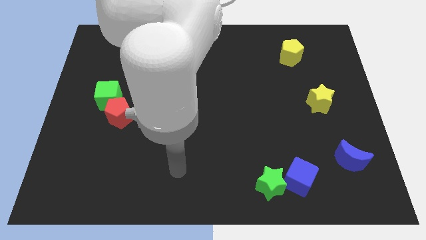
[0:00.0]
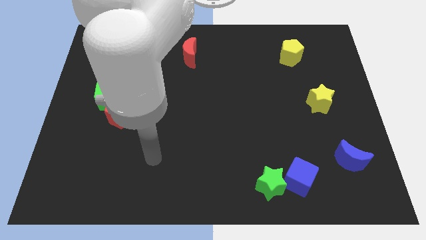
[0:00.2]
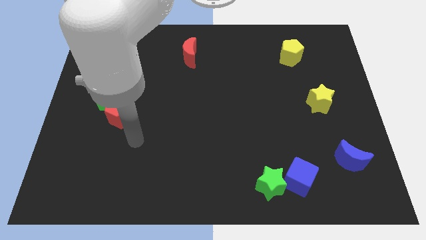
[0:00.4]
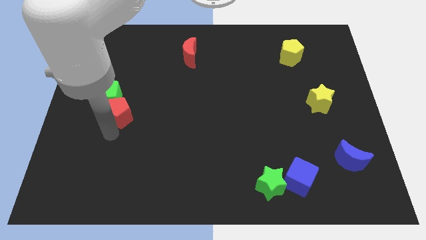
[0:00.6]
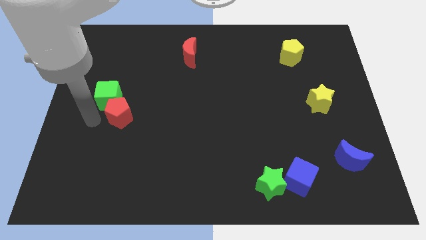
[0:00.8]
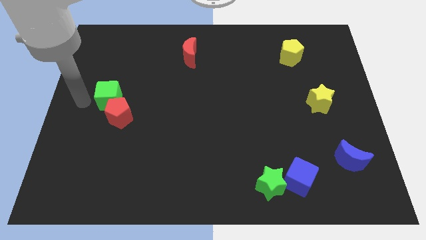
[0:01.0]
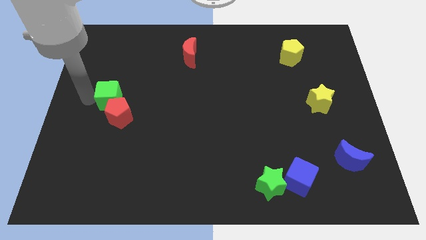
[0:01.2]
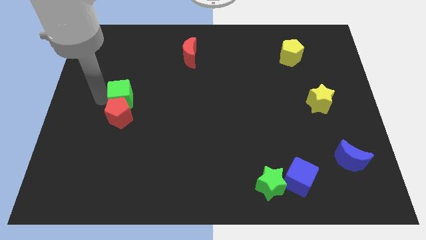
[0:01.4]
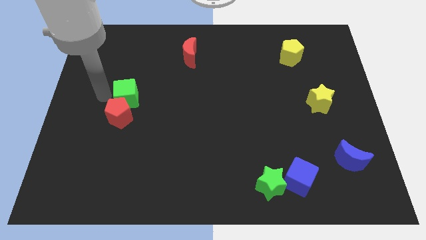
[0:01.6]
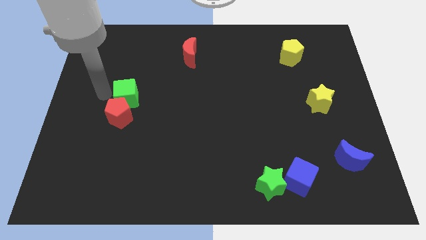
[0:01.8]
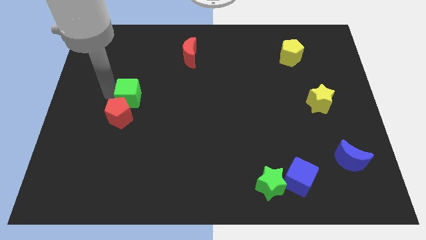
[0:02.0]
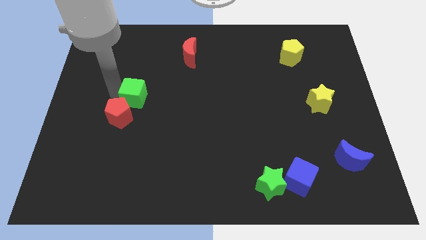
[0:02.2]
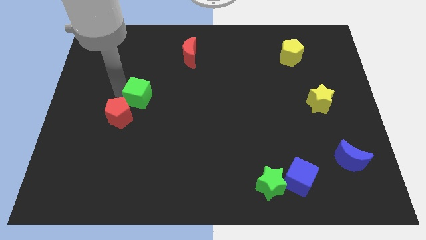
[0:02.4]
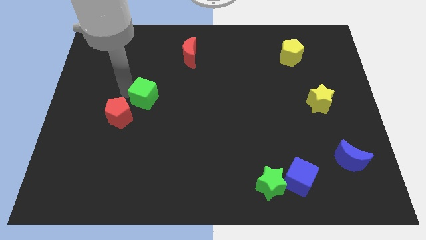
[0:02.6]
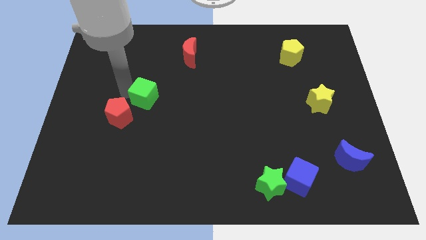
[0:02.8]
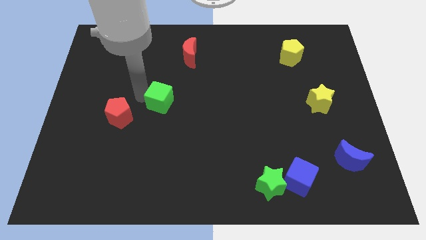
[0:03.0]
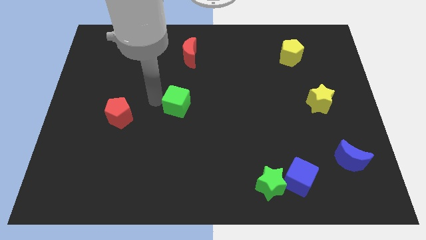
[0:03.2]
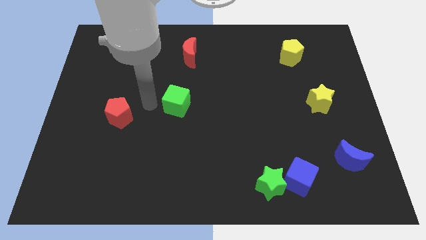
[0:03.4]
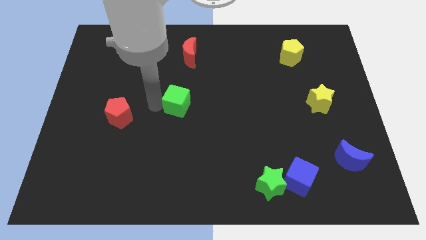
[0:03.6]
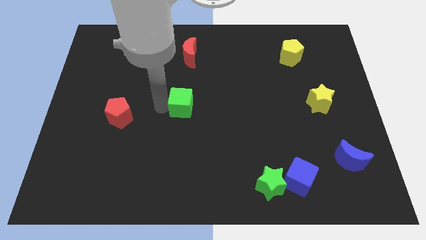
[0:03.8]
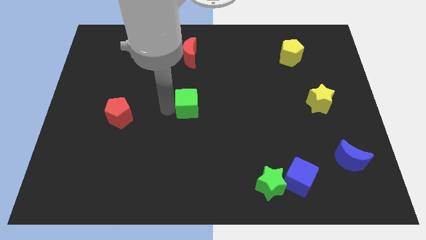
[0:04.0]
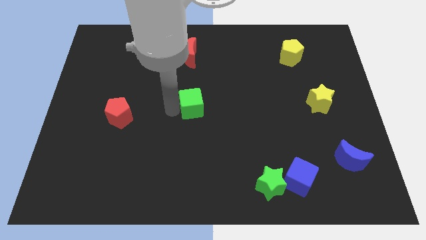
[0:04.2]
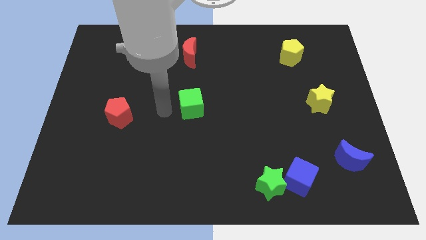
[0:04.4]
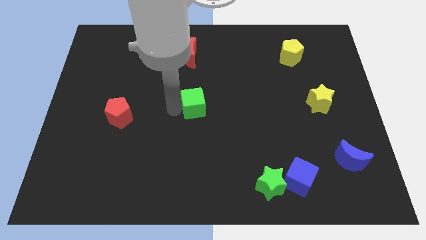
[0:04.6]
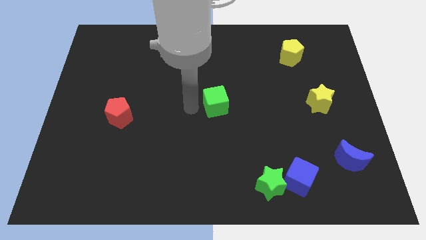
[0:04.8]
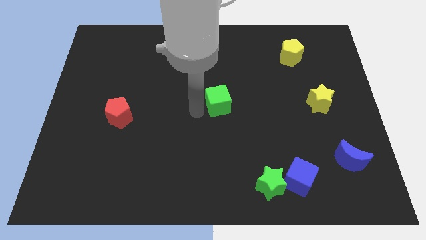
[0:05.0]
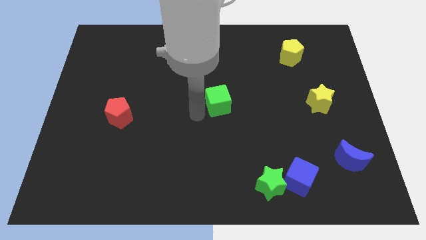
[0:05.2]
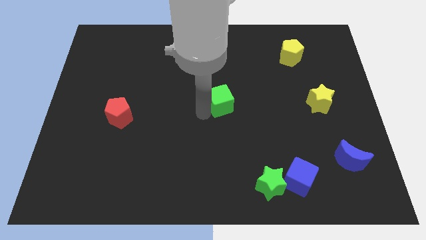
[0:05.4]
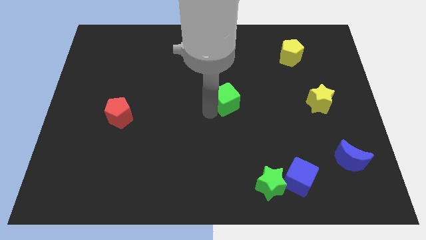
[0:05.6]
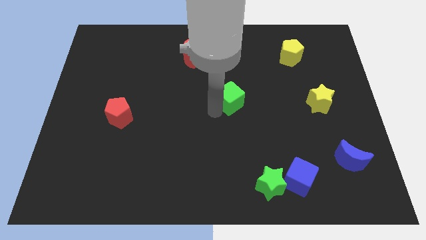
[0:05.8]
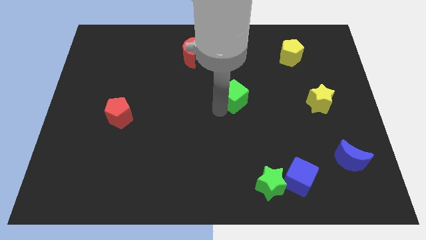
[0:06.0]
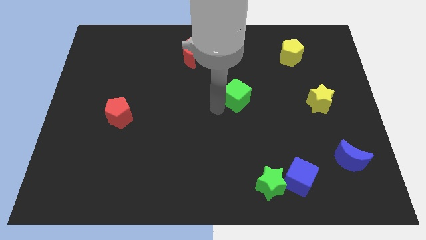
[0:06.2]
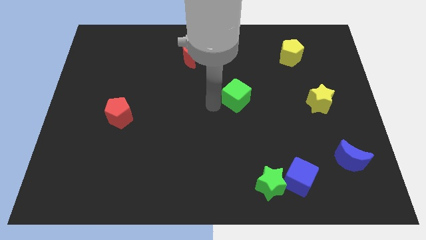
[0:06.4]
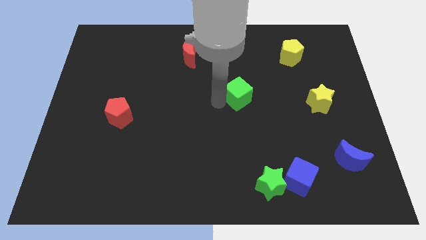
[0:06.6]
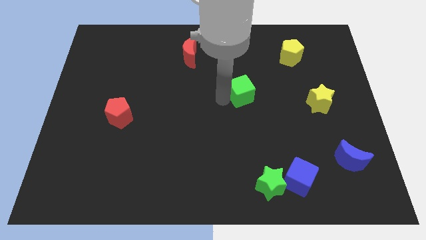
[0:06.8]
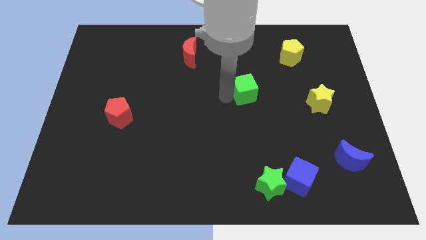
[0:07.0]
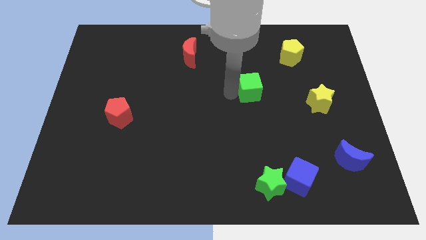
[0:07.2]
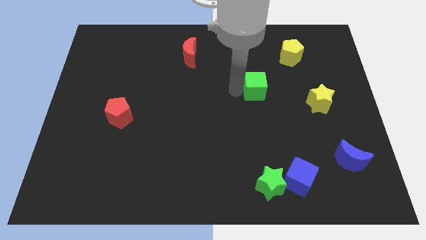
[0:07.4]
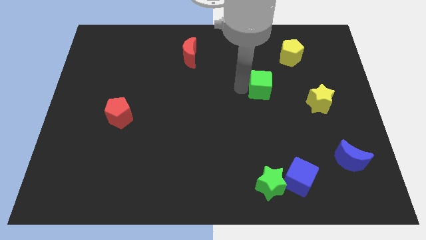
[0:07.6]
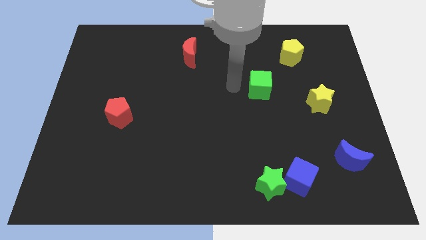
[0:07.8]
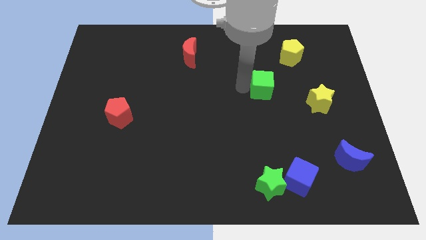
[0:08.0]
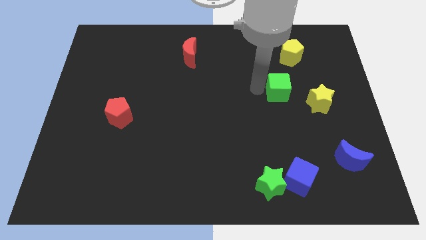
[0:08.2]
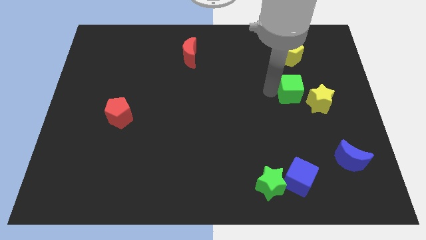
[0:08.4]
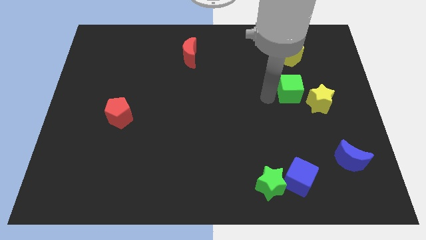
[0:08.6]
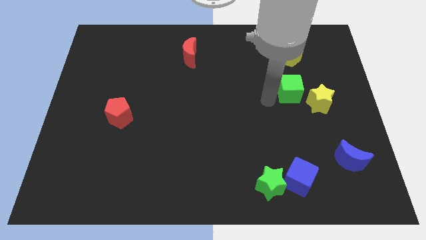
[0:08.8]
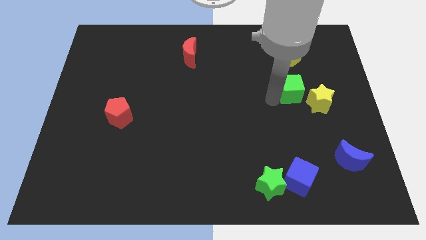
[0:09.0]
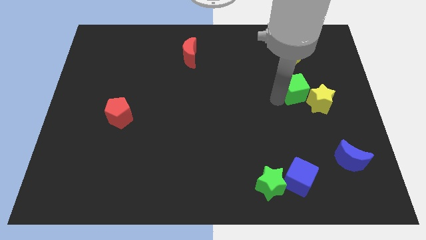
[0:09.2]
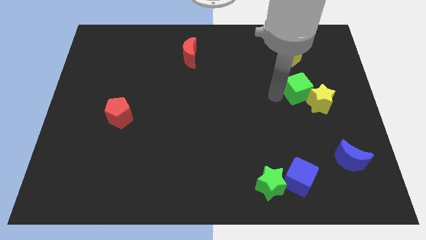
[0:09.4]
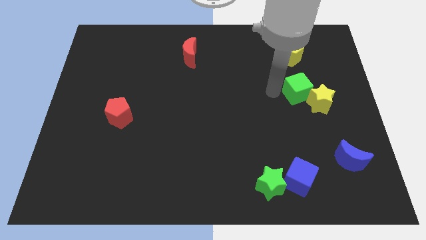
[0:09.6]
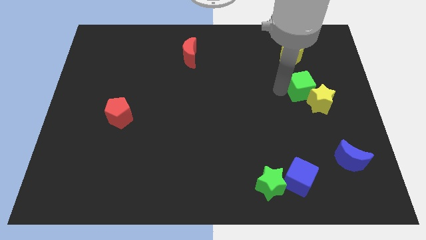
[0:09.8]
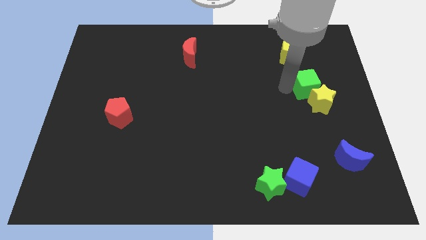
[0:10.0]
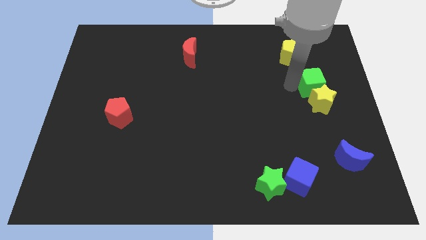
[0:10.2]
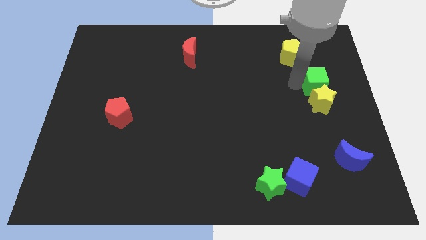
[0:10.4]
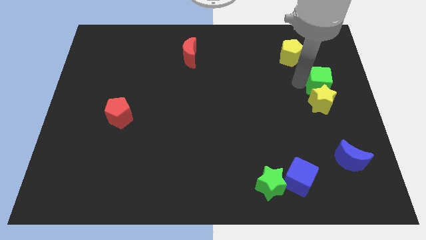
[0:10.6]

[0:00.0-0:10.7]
push the green cube to the center right
